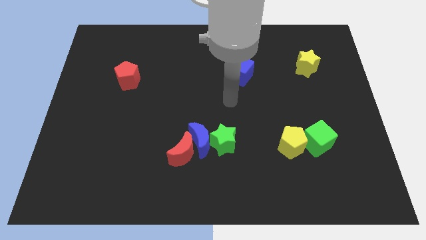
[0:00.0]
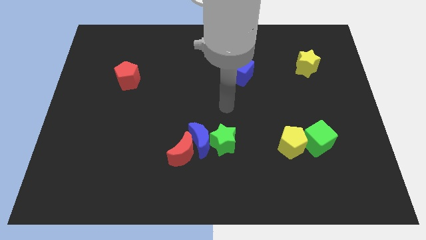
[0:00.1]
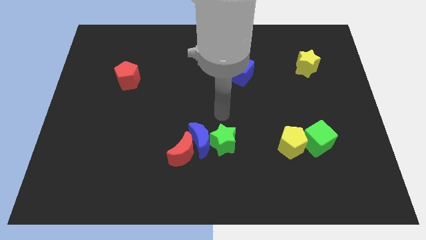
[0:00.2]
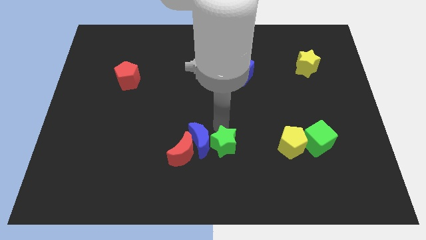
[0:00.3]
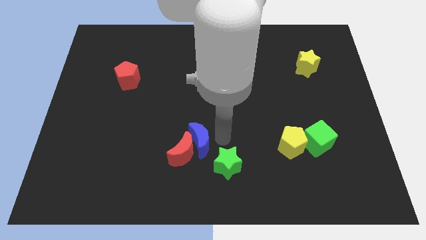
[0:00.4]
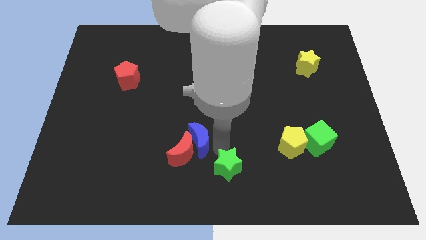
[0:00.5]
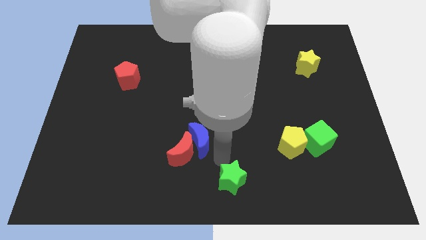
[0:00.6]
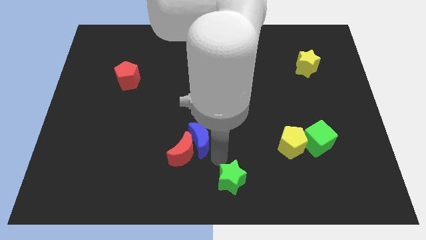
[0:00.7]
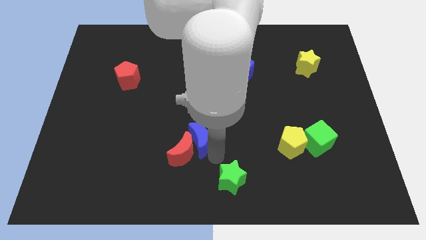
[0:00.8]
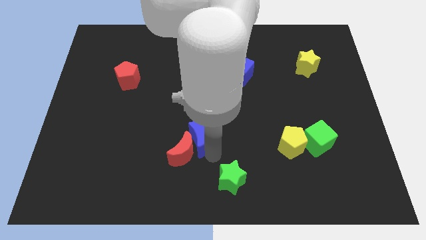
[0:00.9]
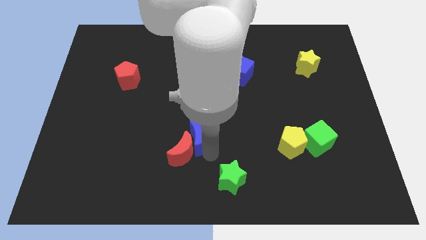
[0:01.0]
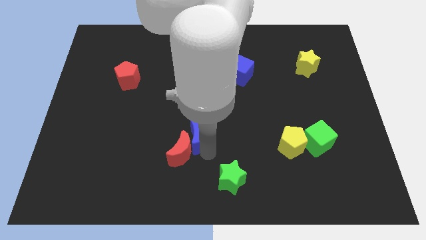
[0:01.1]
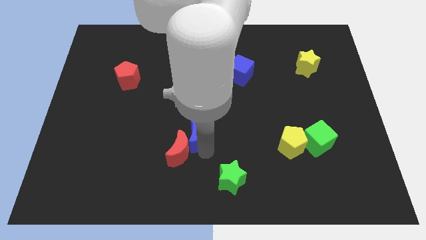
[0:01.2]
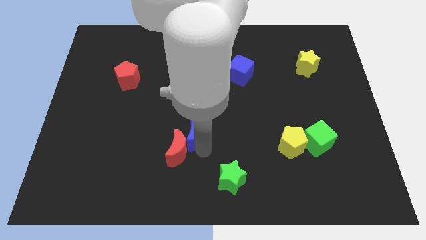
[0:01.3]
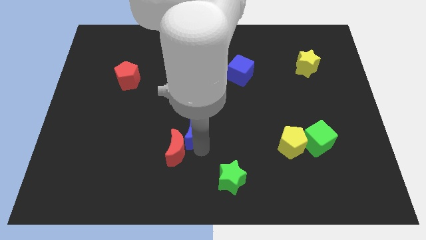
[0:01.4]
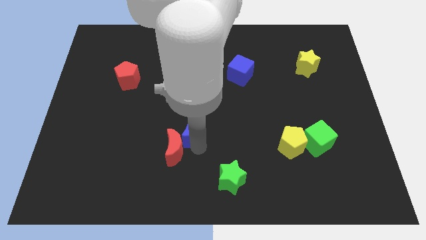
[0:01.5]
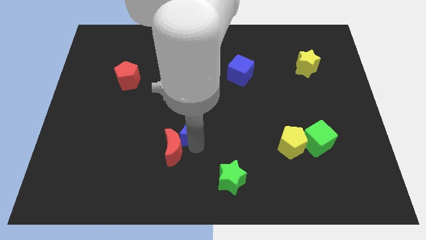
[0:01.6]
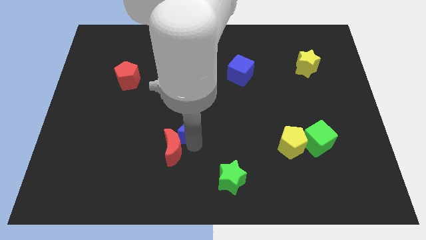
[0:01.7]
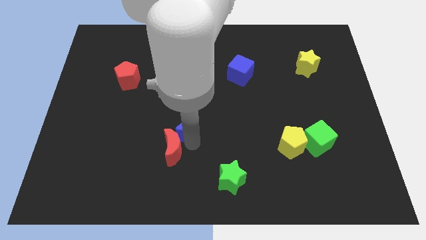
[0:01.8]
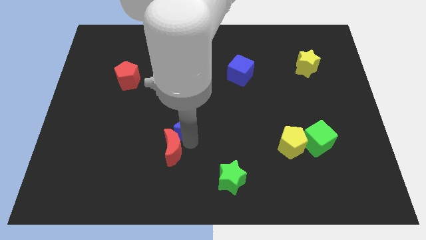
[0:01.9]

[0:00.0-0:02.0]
move the blue moon away from the red moon and green star

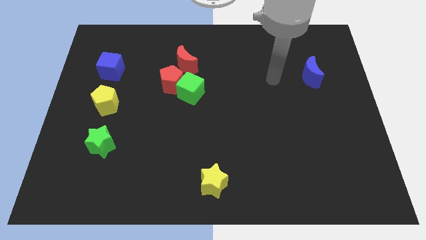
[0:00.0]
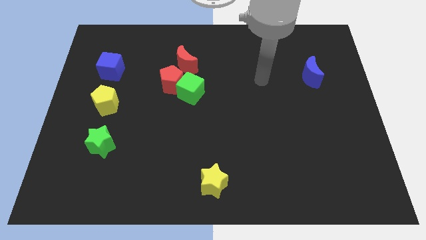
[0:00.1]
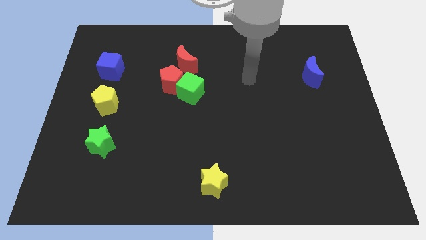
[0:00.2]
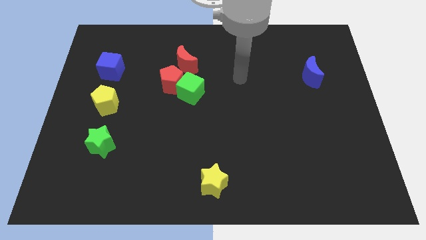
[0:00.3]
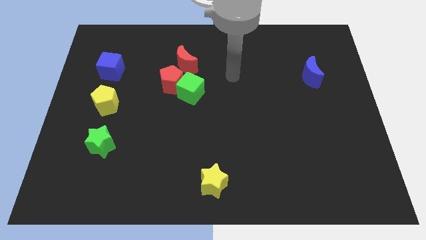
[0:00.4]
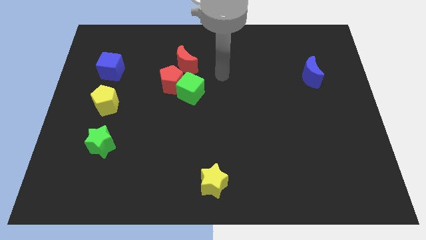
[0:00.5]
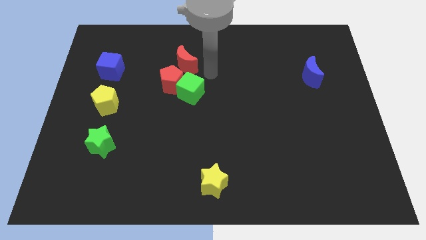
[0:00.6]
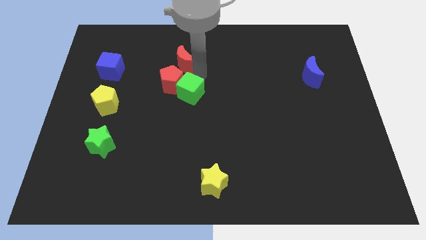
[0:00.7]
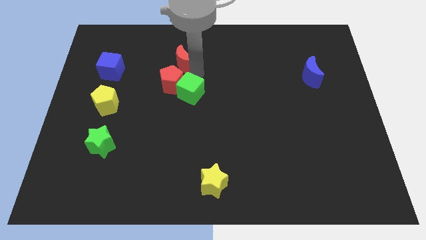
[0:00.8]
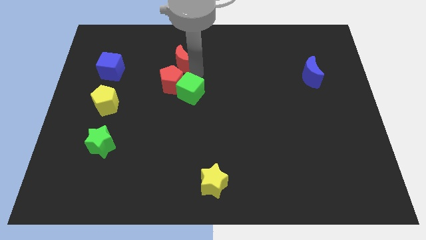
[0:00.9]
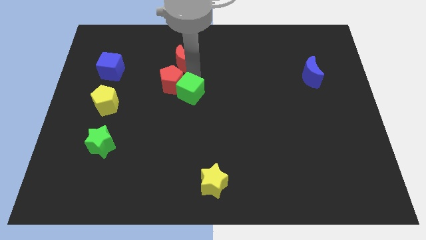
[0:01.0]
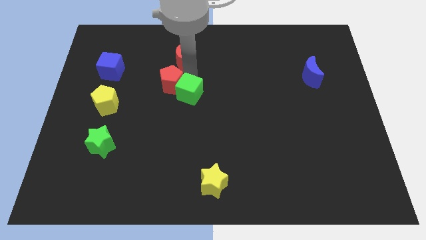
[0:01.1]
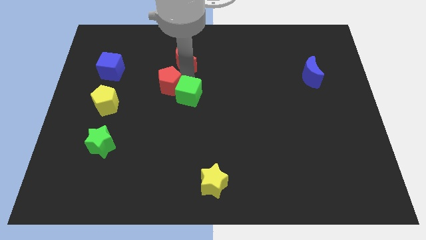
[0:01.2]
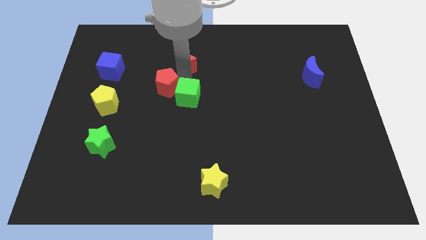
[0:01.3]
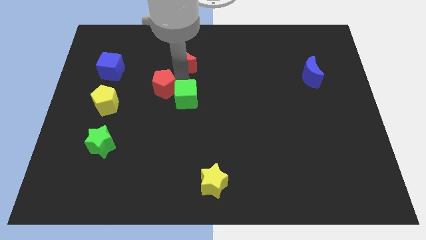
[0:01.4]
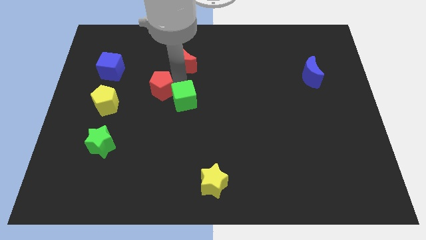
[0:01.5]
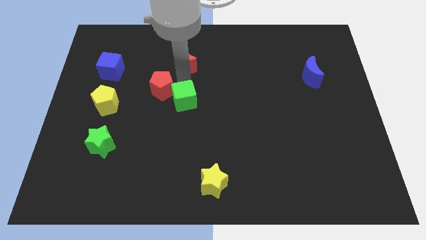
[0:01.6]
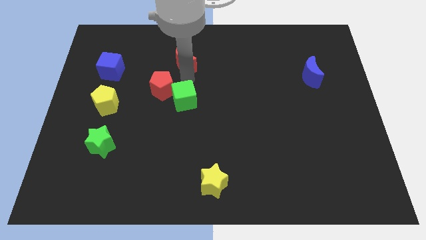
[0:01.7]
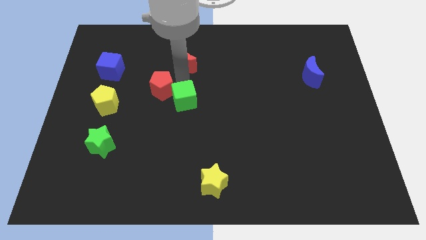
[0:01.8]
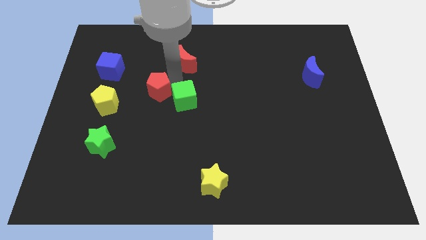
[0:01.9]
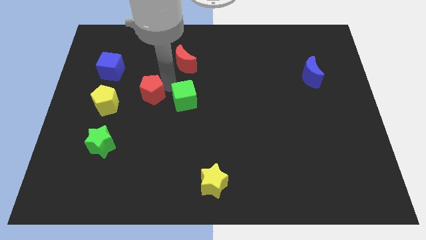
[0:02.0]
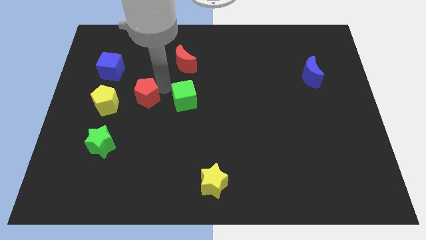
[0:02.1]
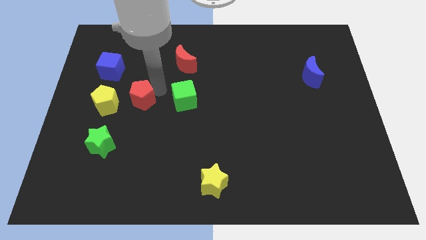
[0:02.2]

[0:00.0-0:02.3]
move the red pentagon away from the green cube and red moon

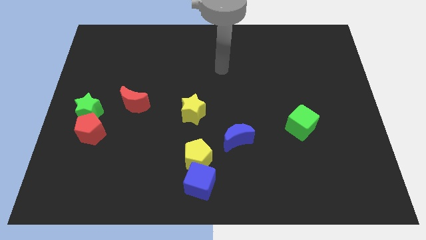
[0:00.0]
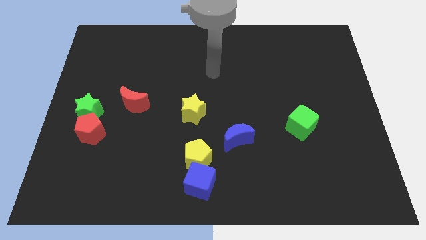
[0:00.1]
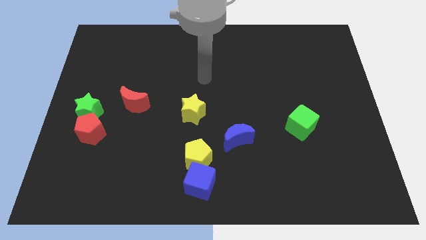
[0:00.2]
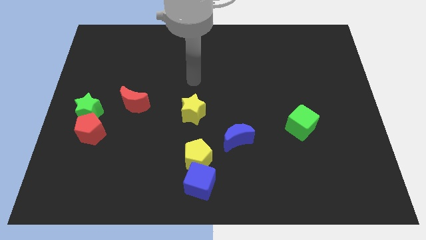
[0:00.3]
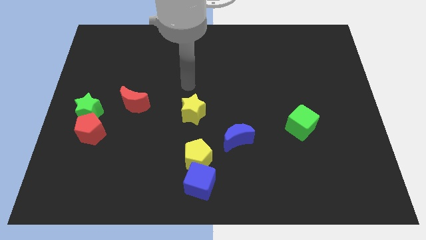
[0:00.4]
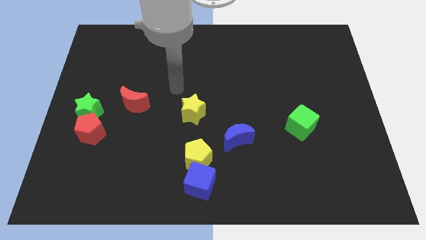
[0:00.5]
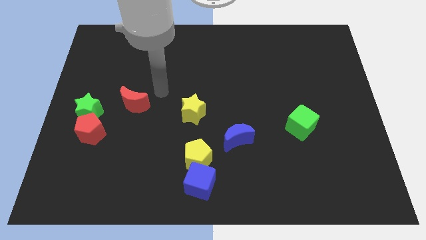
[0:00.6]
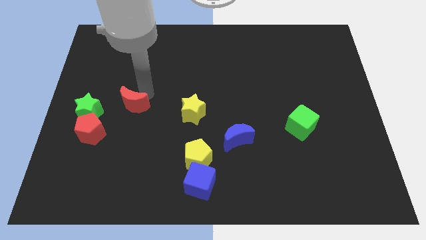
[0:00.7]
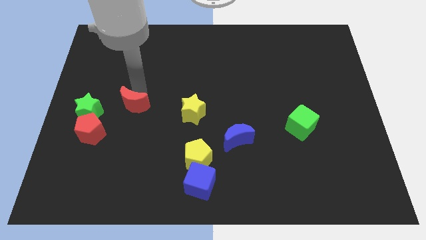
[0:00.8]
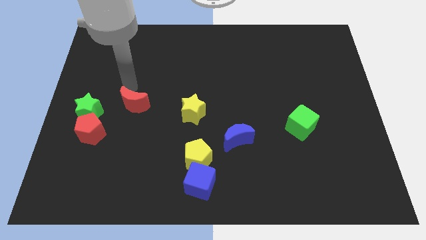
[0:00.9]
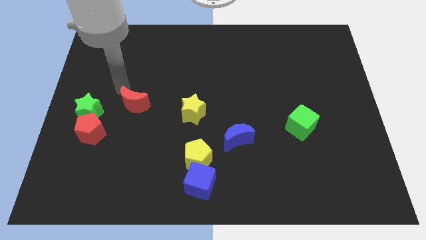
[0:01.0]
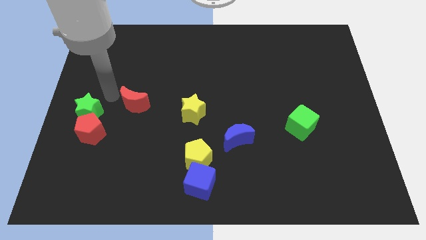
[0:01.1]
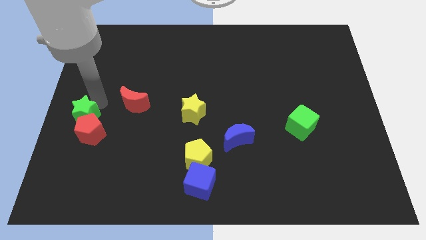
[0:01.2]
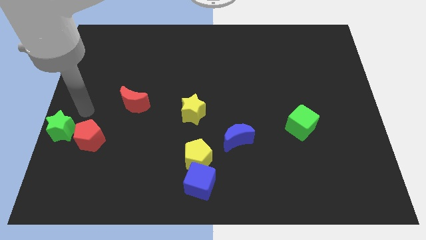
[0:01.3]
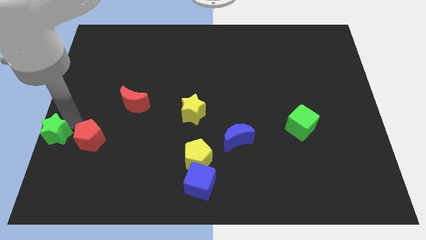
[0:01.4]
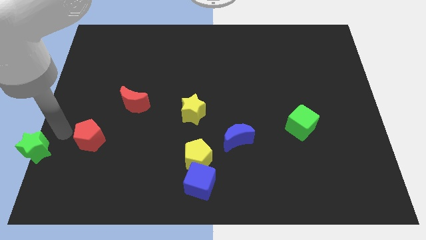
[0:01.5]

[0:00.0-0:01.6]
move the red pentagon away from the green star

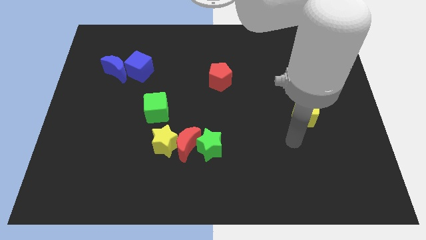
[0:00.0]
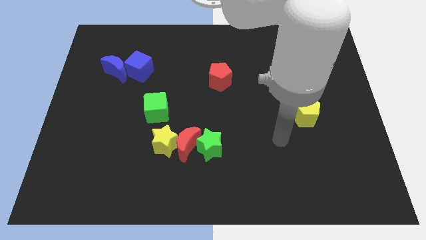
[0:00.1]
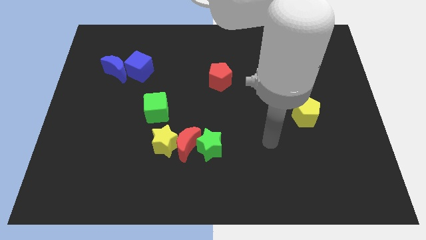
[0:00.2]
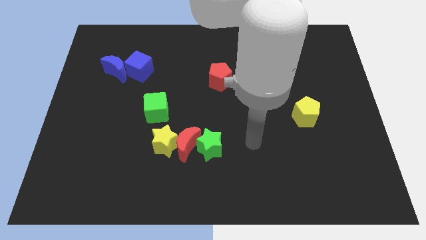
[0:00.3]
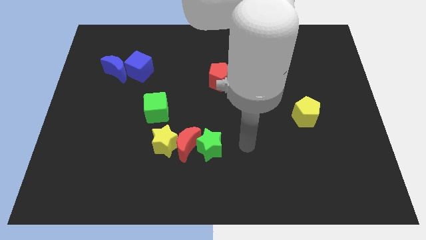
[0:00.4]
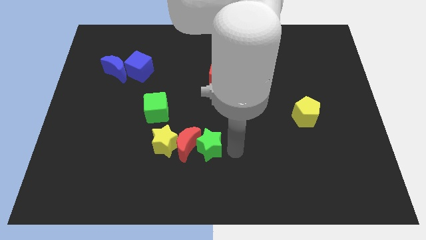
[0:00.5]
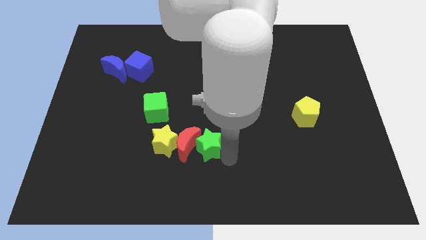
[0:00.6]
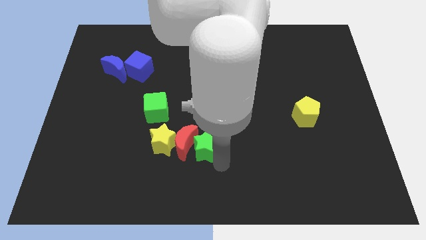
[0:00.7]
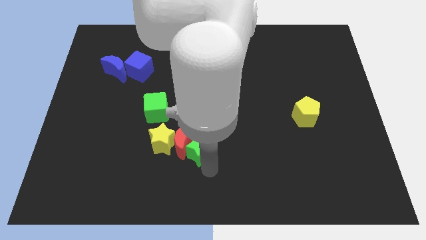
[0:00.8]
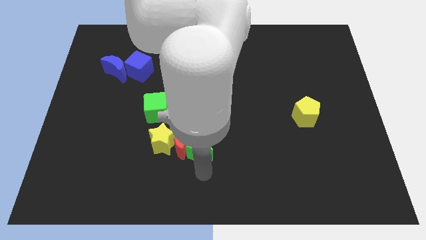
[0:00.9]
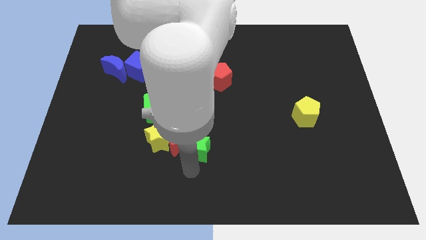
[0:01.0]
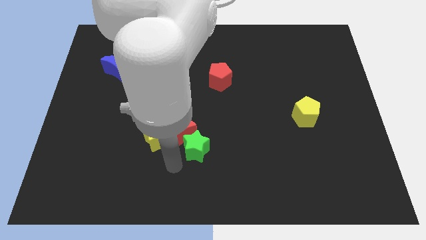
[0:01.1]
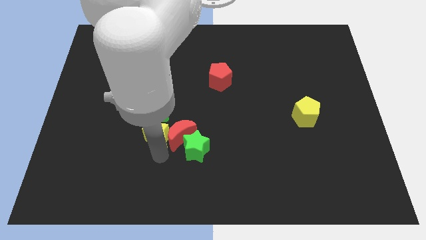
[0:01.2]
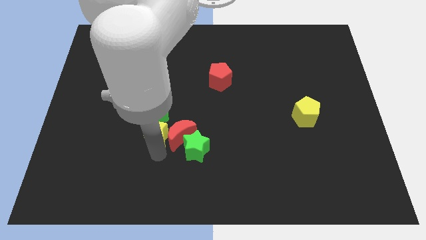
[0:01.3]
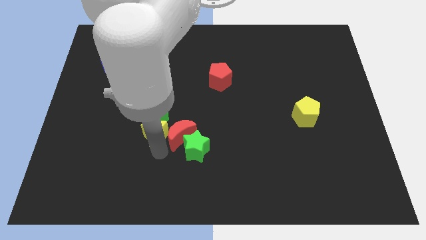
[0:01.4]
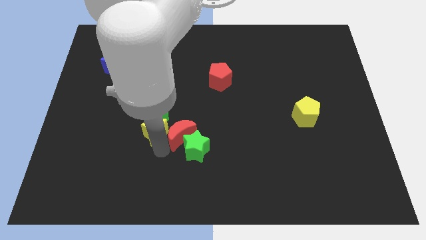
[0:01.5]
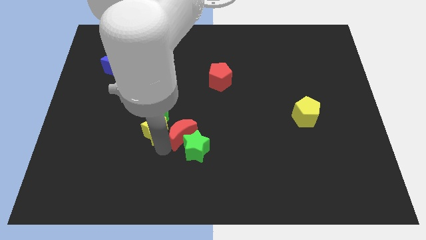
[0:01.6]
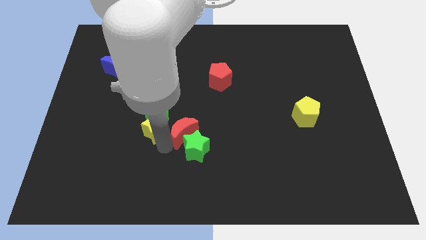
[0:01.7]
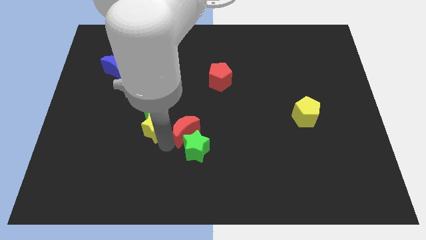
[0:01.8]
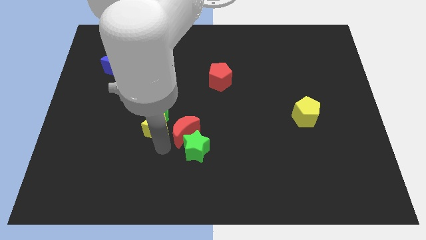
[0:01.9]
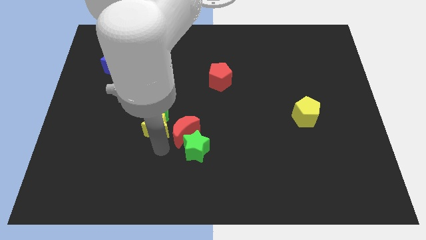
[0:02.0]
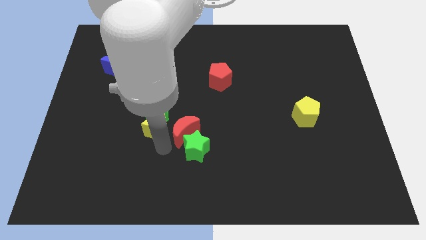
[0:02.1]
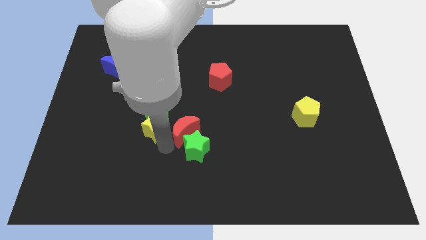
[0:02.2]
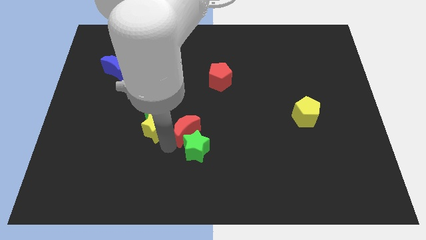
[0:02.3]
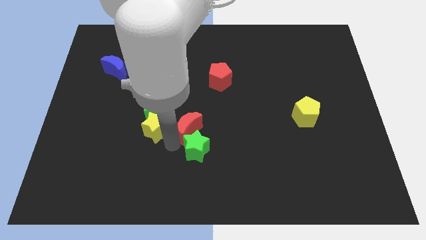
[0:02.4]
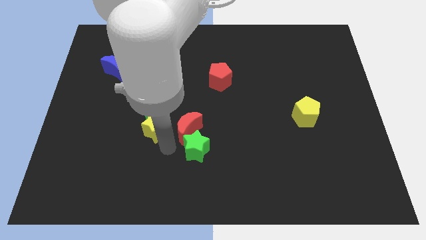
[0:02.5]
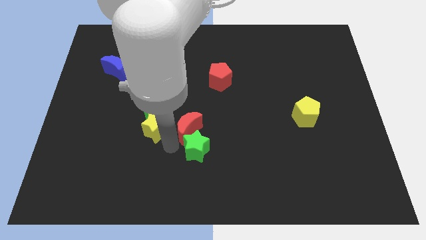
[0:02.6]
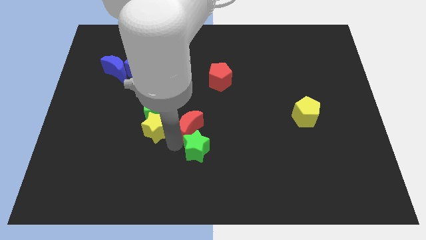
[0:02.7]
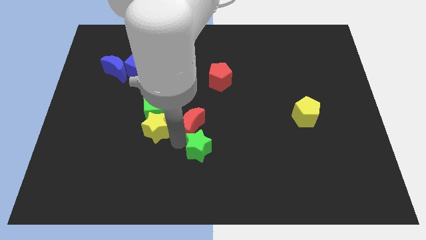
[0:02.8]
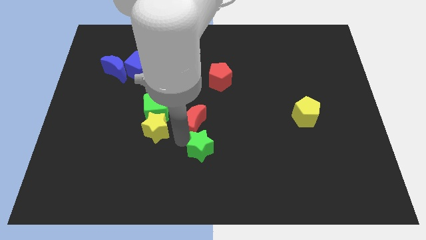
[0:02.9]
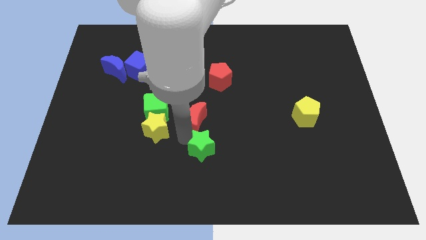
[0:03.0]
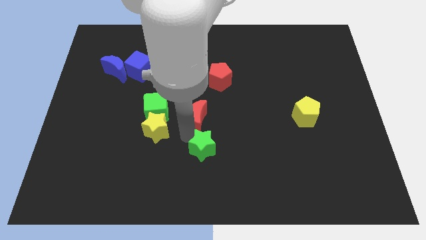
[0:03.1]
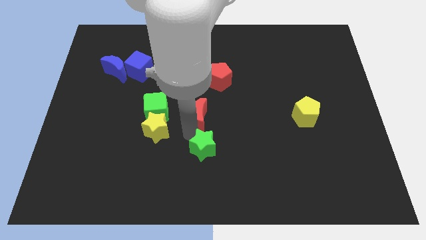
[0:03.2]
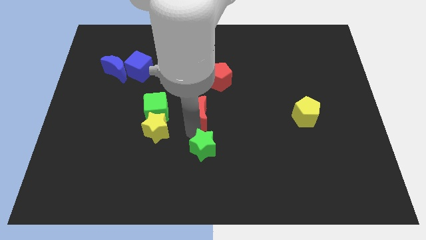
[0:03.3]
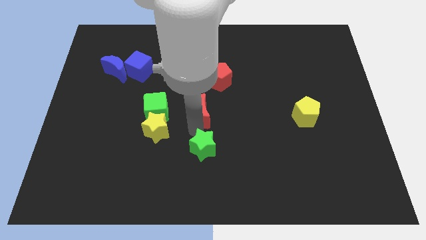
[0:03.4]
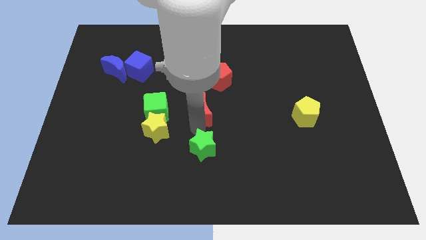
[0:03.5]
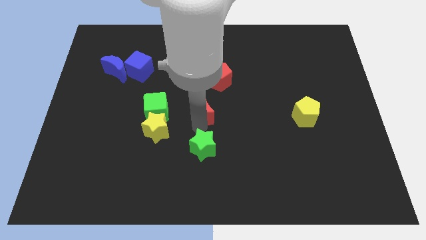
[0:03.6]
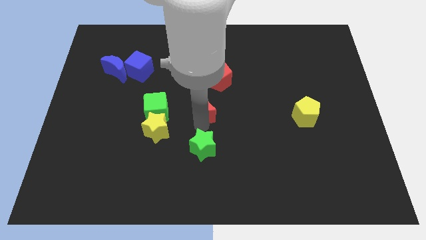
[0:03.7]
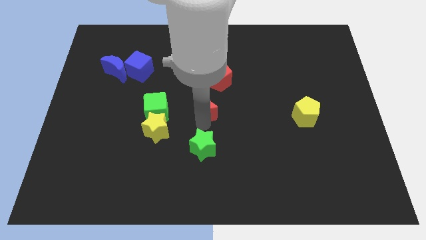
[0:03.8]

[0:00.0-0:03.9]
separate the red moon from the green star and yellow star
